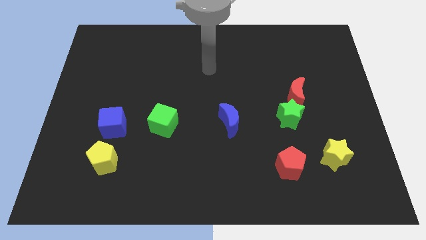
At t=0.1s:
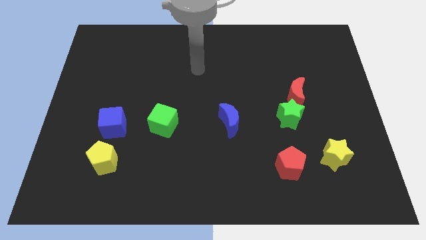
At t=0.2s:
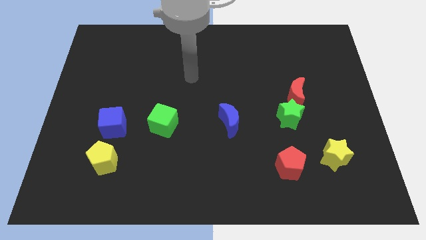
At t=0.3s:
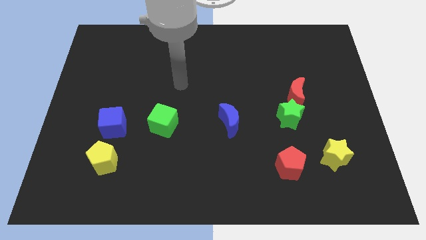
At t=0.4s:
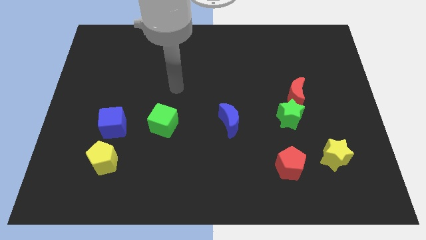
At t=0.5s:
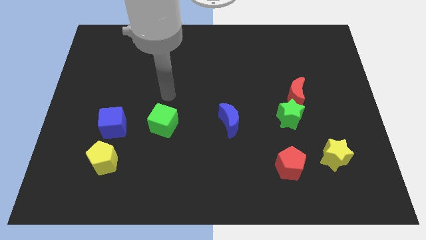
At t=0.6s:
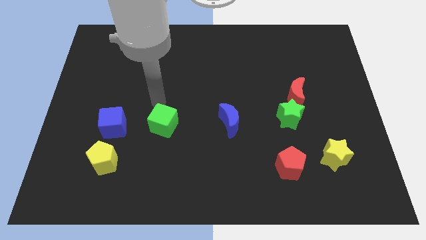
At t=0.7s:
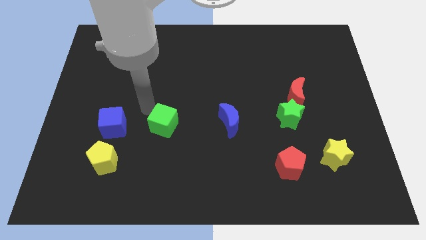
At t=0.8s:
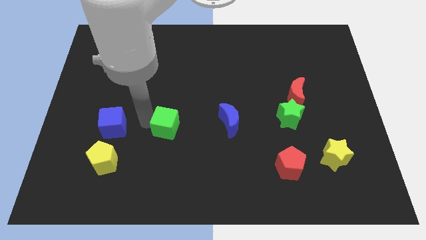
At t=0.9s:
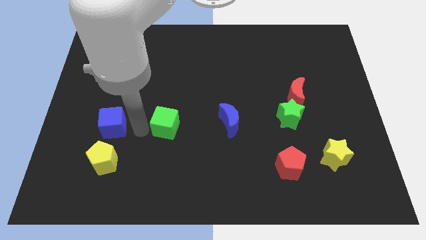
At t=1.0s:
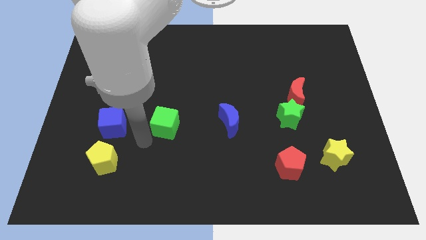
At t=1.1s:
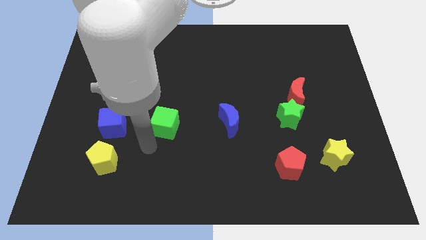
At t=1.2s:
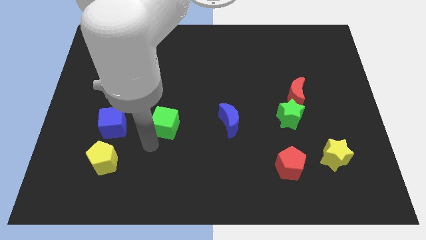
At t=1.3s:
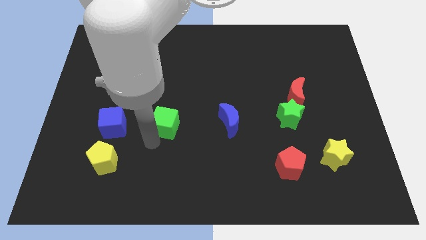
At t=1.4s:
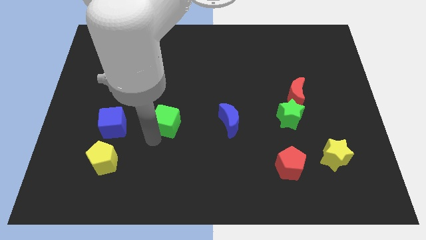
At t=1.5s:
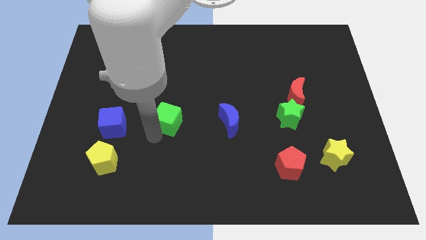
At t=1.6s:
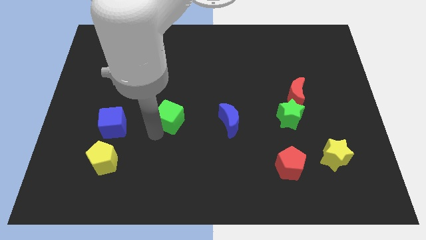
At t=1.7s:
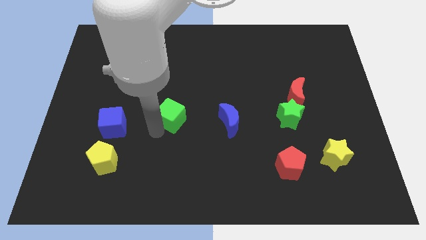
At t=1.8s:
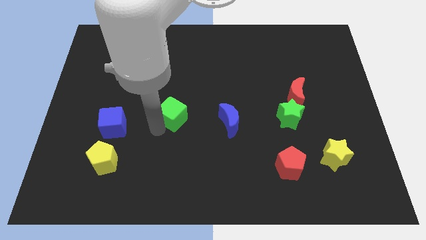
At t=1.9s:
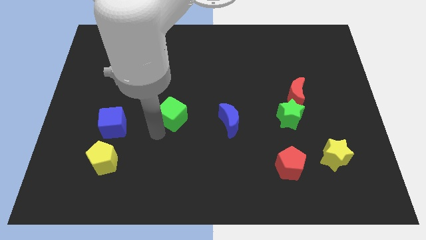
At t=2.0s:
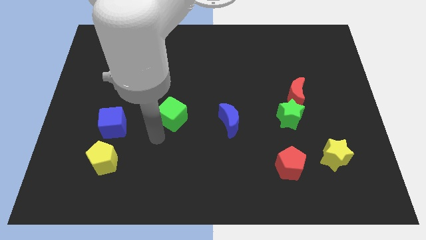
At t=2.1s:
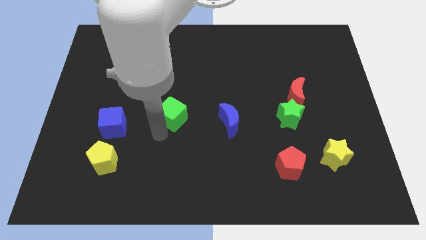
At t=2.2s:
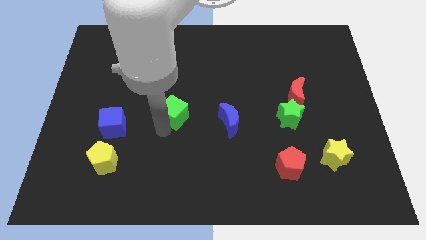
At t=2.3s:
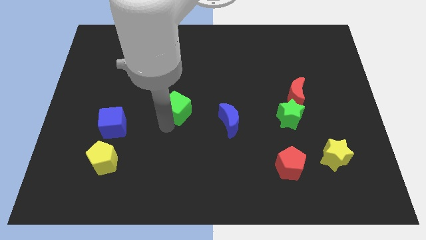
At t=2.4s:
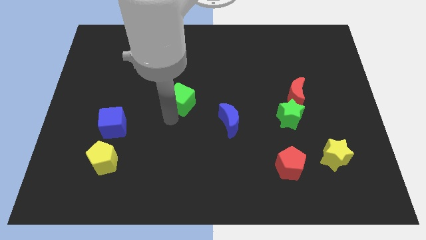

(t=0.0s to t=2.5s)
slightly slide the green cube up and then right

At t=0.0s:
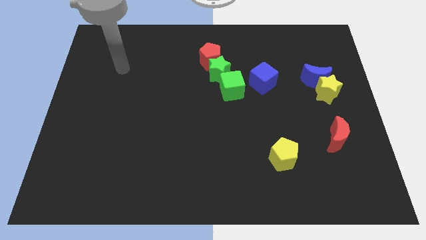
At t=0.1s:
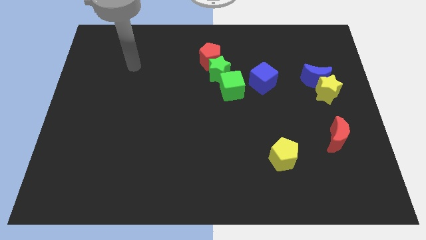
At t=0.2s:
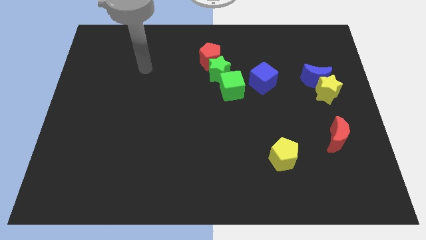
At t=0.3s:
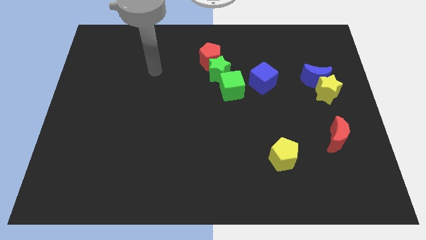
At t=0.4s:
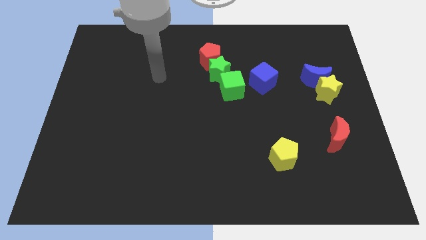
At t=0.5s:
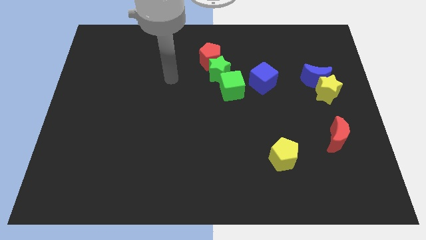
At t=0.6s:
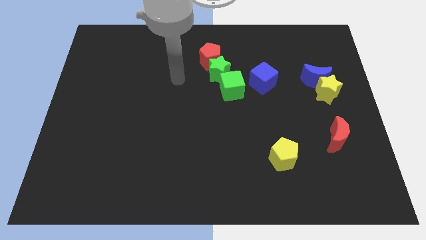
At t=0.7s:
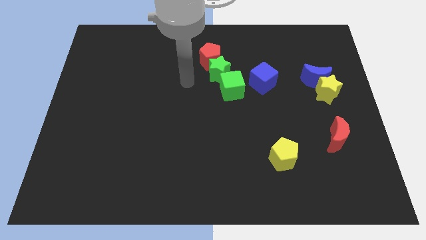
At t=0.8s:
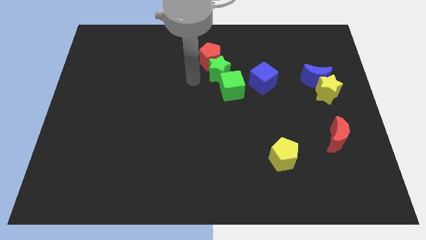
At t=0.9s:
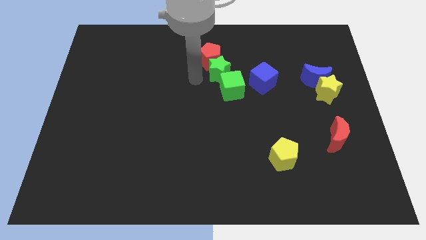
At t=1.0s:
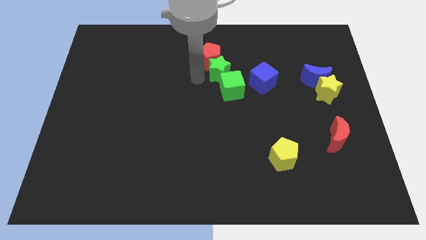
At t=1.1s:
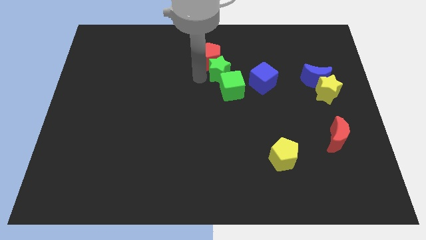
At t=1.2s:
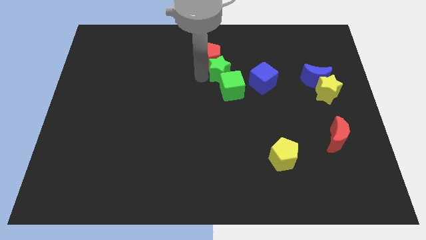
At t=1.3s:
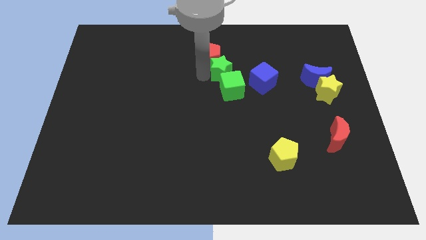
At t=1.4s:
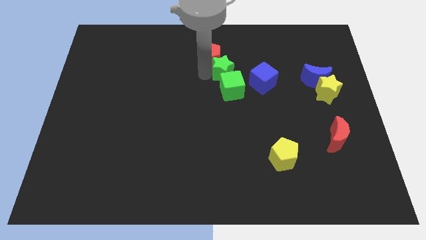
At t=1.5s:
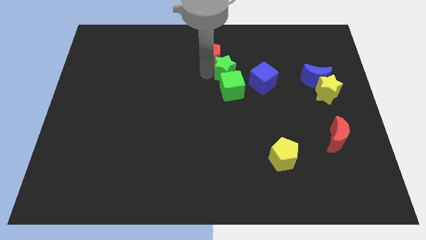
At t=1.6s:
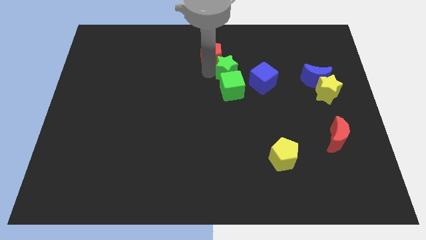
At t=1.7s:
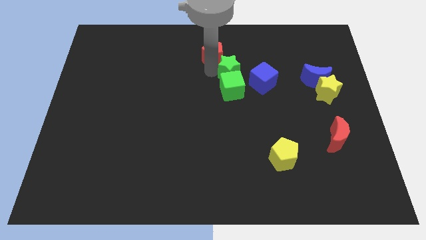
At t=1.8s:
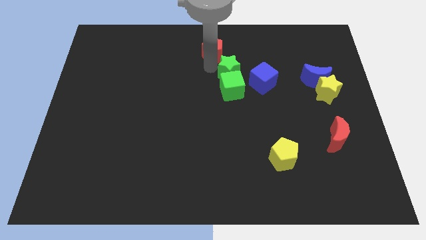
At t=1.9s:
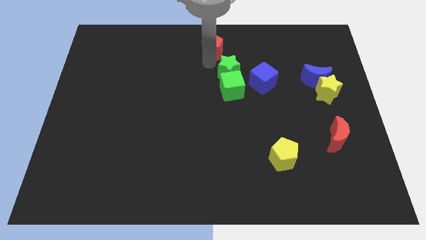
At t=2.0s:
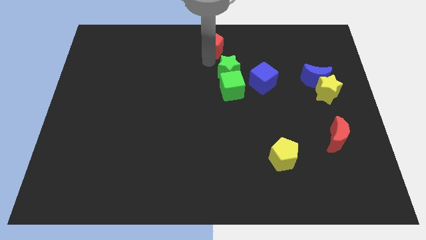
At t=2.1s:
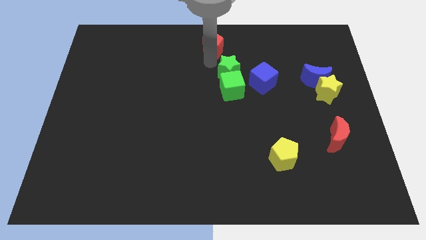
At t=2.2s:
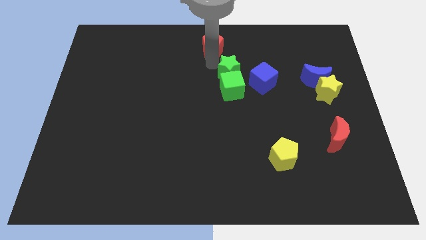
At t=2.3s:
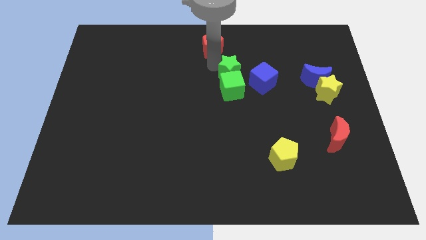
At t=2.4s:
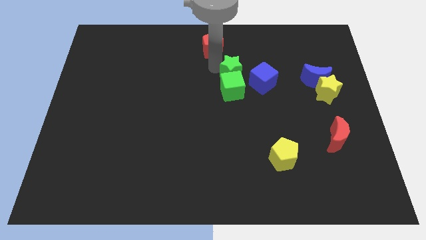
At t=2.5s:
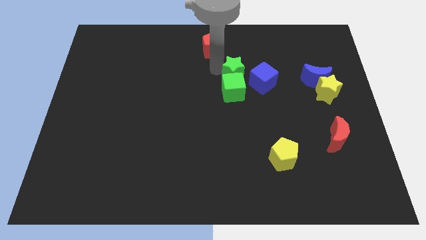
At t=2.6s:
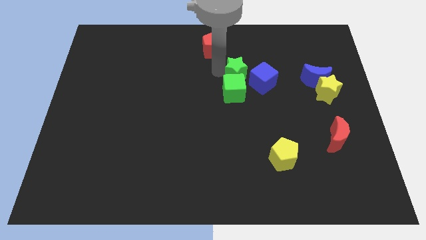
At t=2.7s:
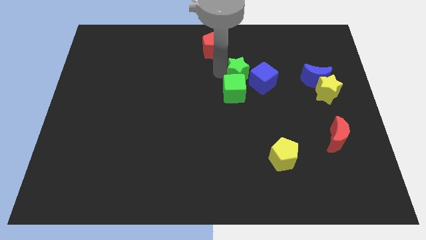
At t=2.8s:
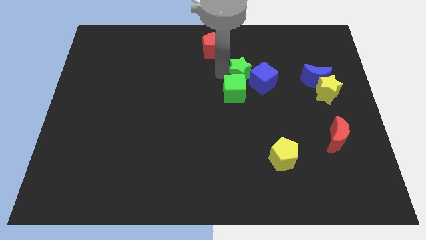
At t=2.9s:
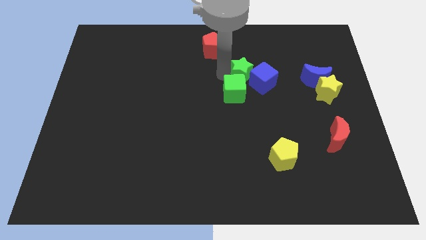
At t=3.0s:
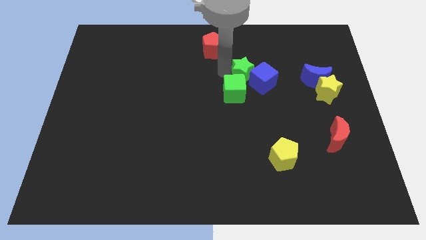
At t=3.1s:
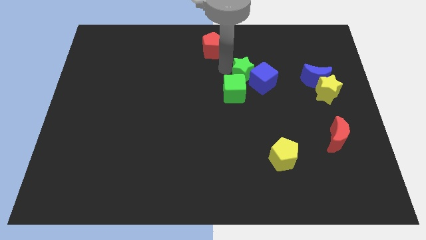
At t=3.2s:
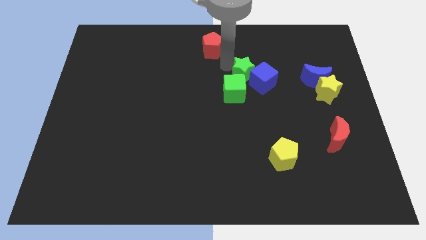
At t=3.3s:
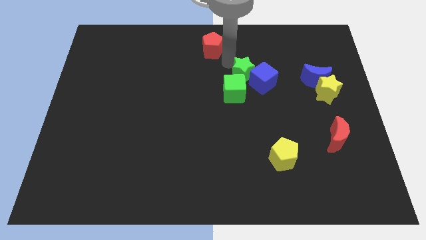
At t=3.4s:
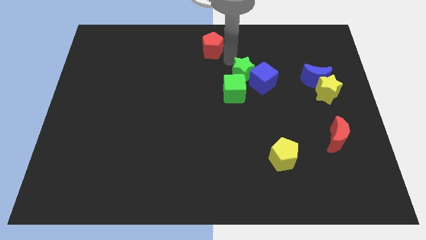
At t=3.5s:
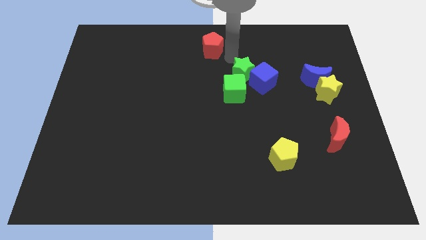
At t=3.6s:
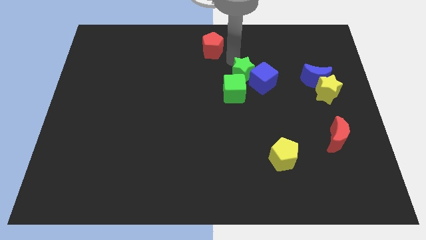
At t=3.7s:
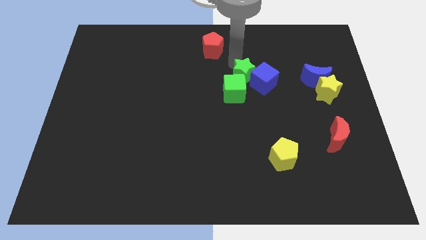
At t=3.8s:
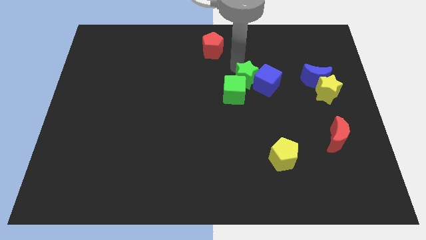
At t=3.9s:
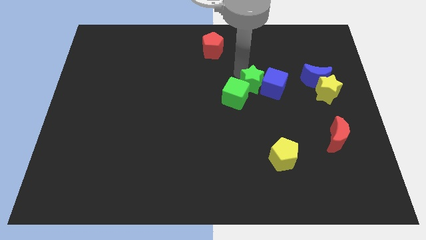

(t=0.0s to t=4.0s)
move the green star a little bit downwards and then right

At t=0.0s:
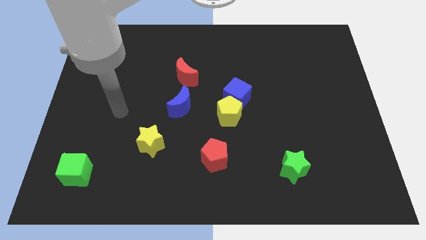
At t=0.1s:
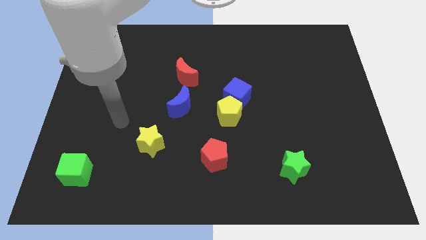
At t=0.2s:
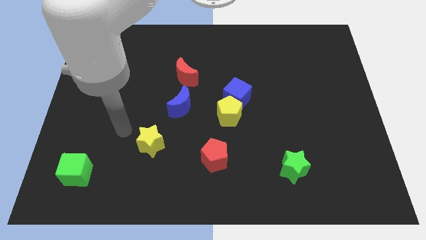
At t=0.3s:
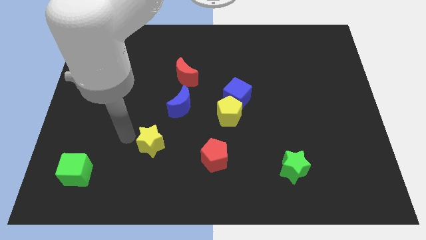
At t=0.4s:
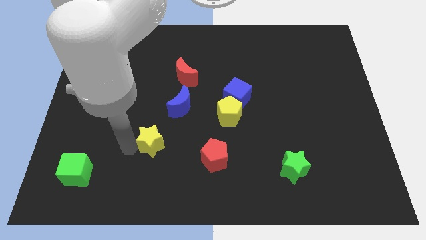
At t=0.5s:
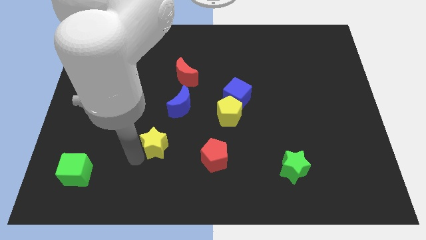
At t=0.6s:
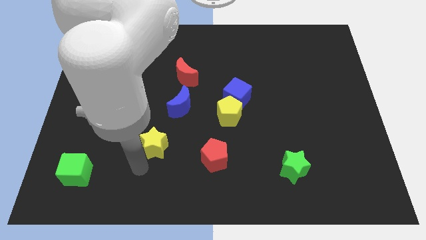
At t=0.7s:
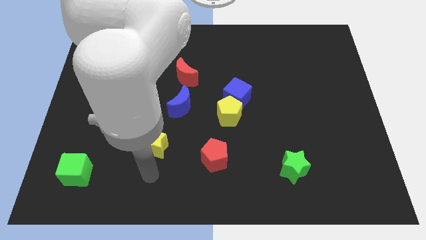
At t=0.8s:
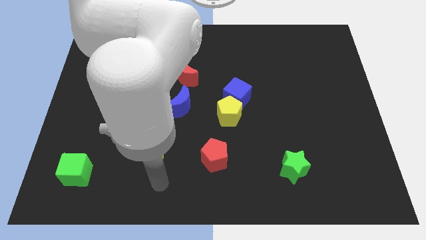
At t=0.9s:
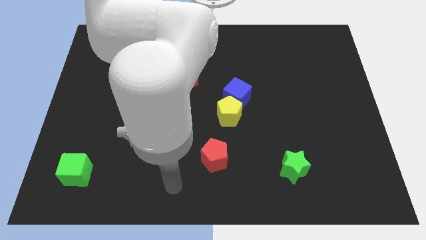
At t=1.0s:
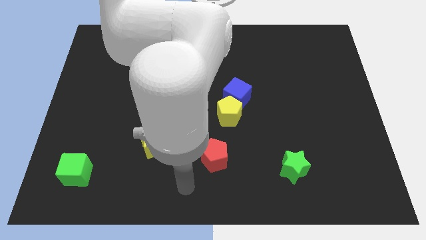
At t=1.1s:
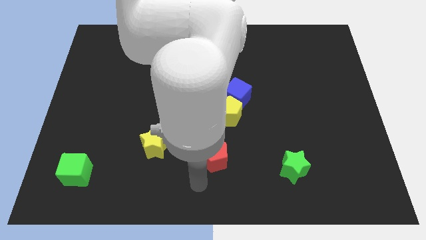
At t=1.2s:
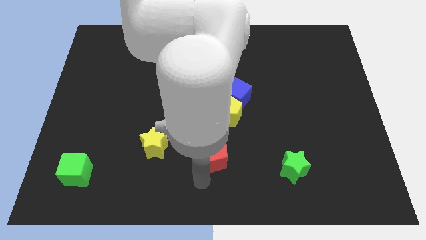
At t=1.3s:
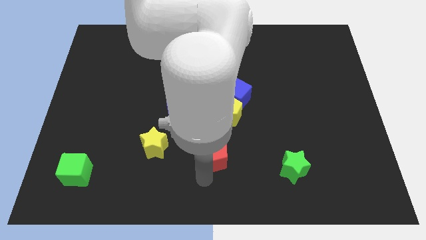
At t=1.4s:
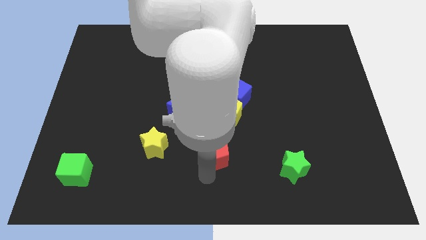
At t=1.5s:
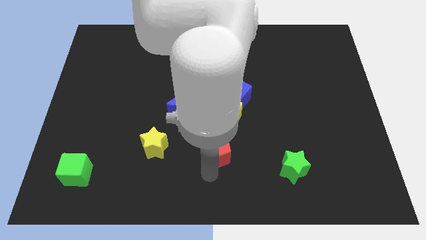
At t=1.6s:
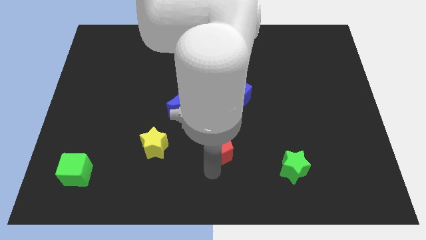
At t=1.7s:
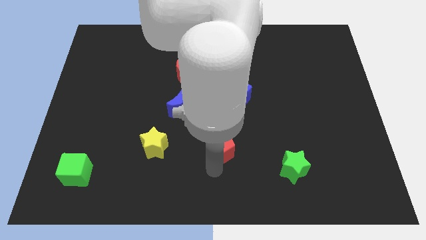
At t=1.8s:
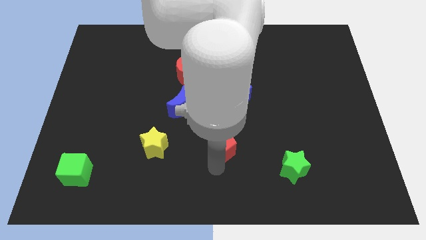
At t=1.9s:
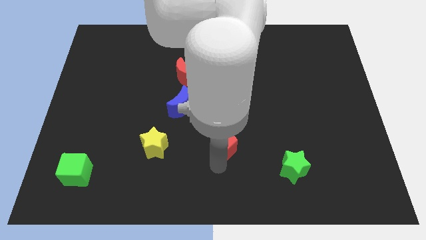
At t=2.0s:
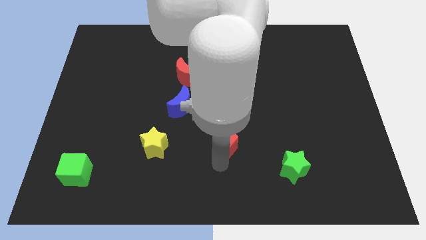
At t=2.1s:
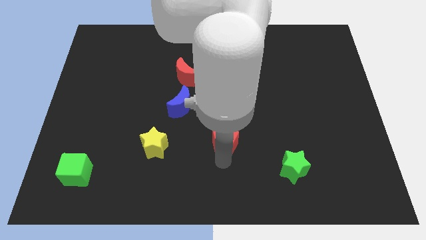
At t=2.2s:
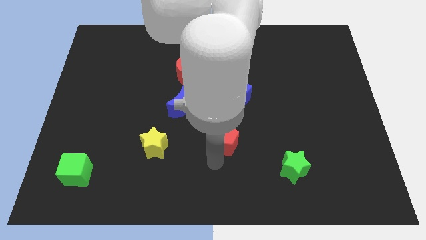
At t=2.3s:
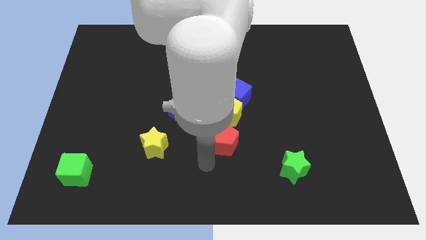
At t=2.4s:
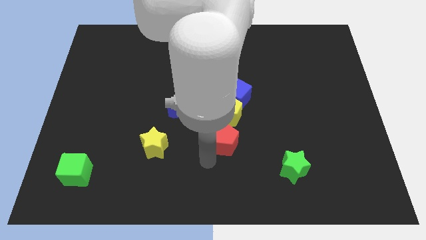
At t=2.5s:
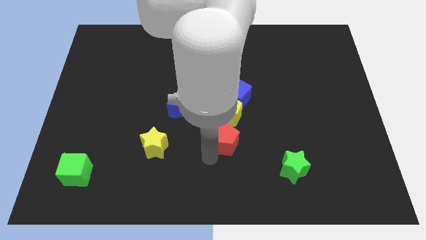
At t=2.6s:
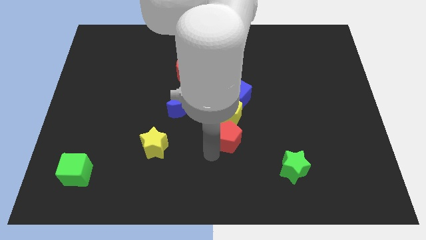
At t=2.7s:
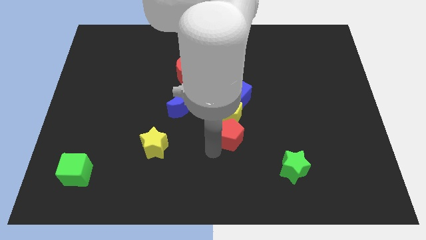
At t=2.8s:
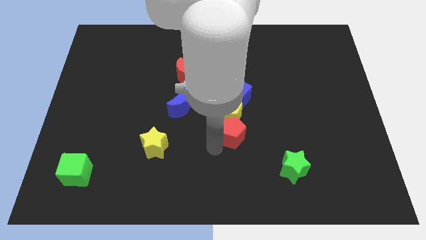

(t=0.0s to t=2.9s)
slightly push the red pentagon upwards and right diagonally
